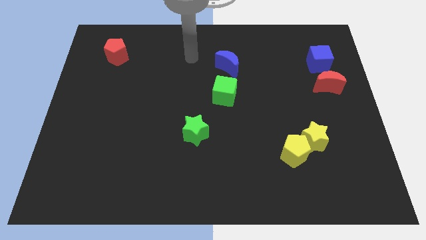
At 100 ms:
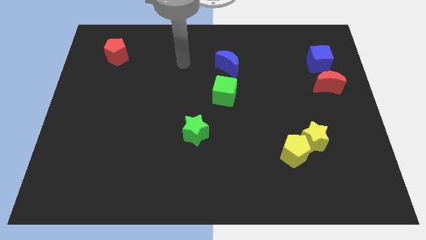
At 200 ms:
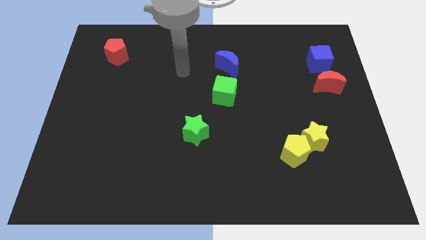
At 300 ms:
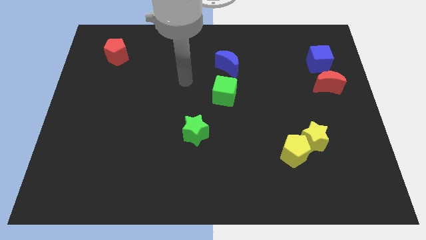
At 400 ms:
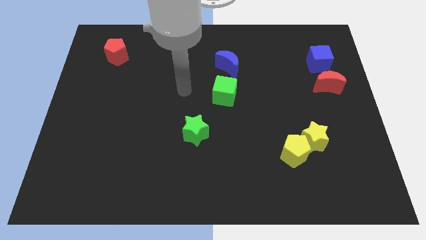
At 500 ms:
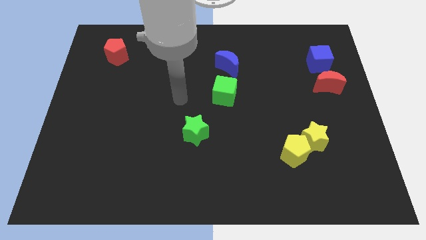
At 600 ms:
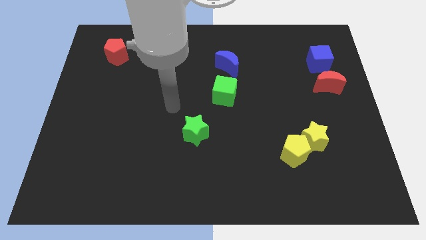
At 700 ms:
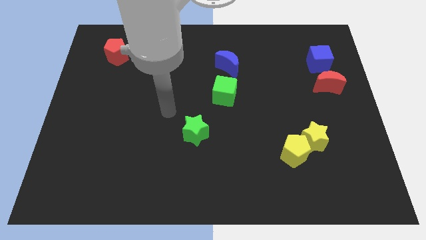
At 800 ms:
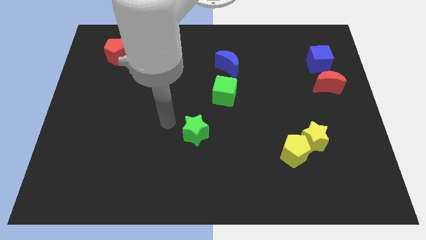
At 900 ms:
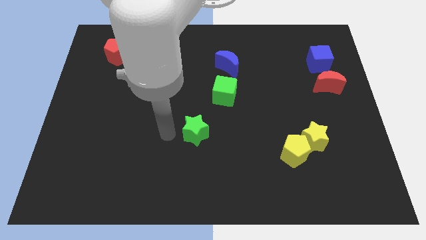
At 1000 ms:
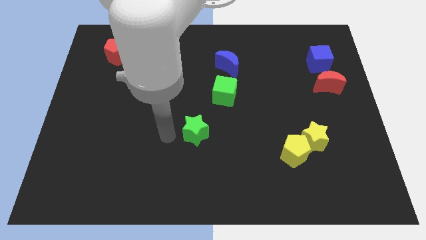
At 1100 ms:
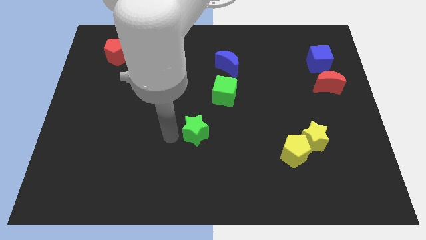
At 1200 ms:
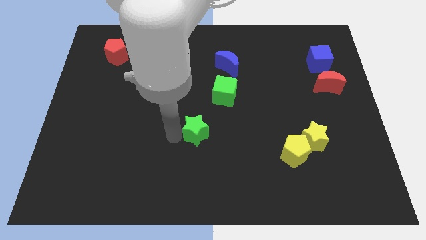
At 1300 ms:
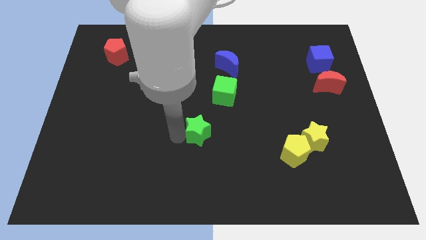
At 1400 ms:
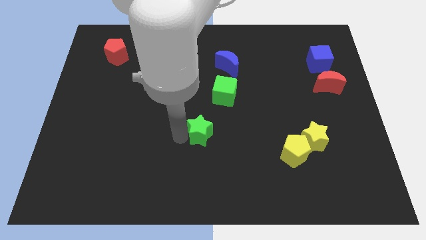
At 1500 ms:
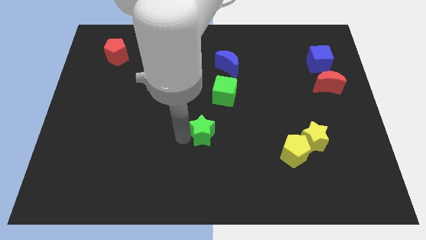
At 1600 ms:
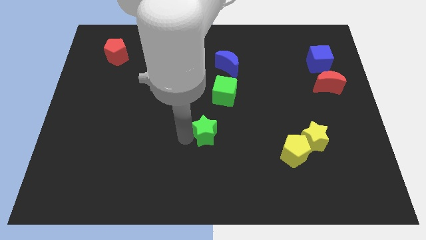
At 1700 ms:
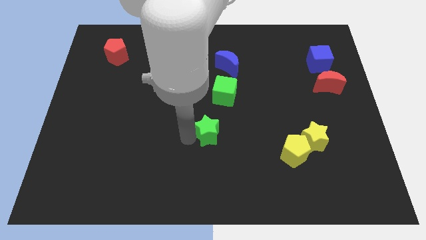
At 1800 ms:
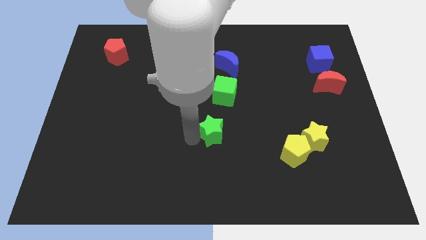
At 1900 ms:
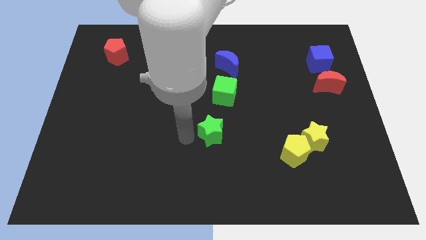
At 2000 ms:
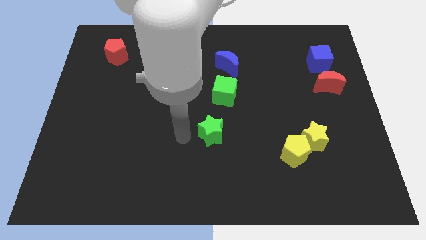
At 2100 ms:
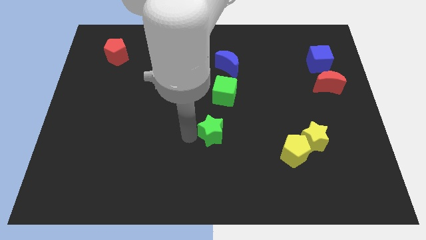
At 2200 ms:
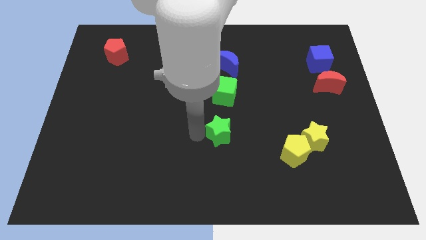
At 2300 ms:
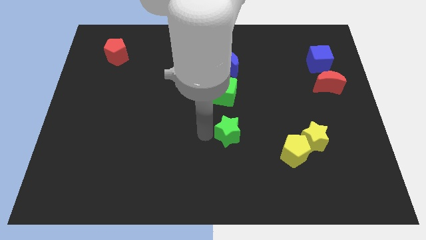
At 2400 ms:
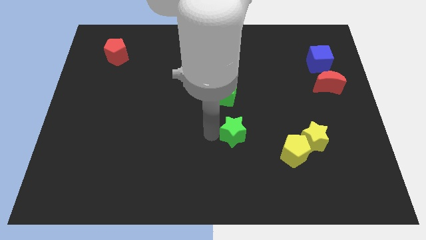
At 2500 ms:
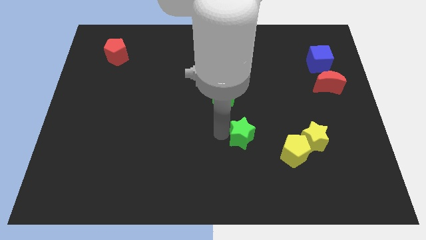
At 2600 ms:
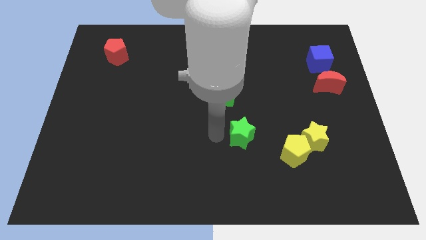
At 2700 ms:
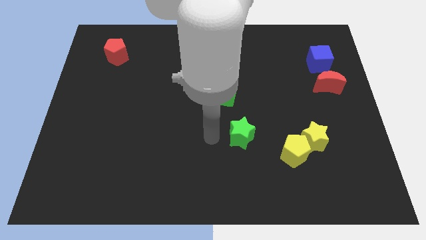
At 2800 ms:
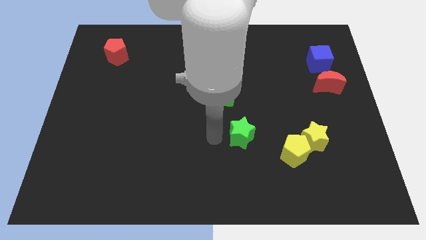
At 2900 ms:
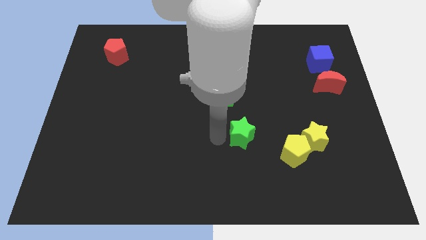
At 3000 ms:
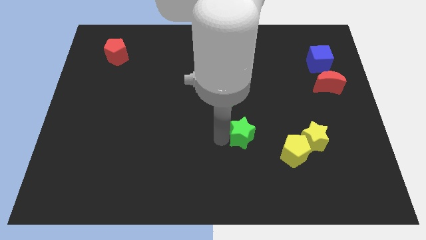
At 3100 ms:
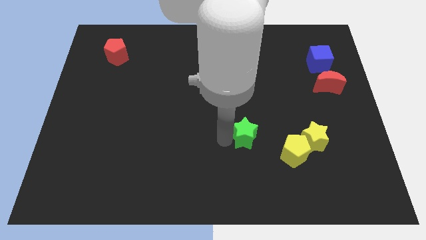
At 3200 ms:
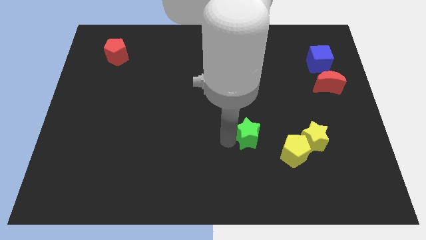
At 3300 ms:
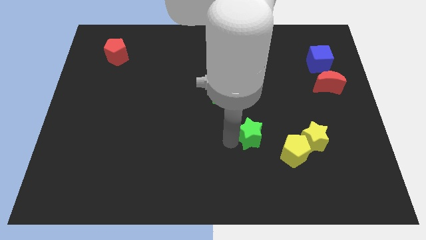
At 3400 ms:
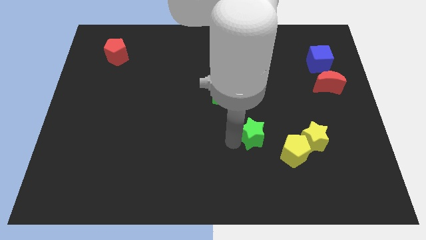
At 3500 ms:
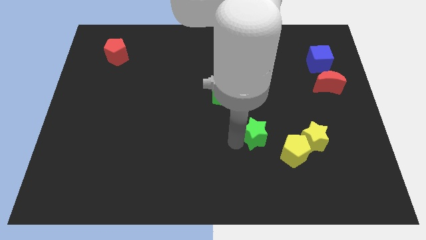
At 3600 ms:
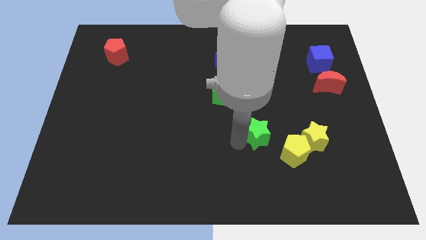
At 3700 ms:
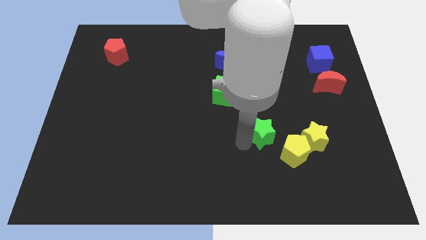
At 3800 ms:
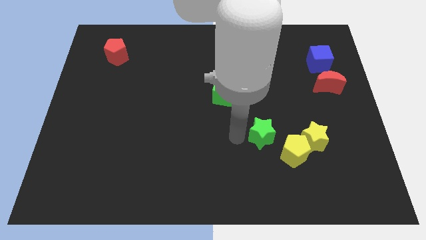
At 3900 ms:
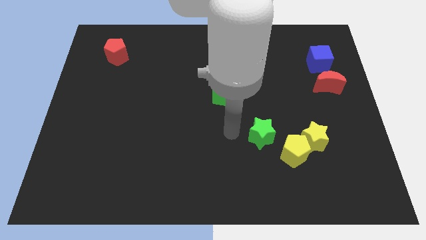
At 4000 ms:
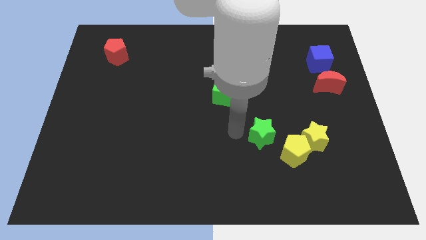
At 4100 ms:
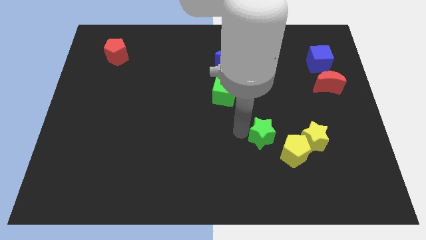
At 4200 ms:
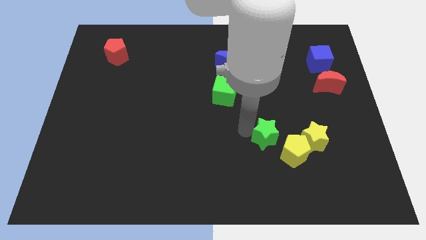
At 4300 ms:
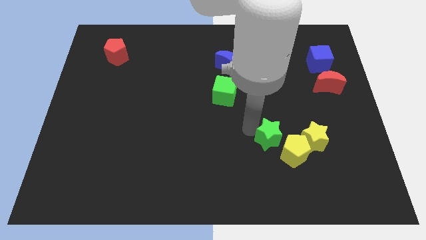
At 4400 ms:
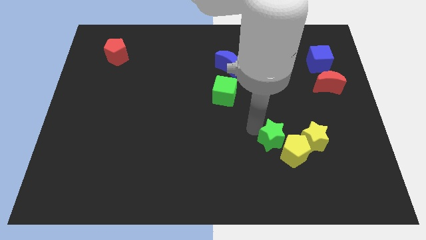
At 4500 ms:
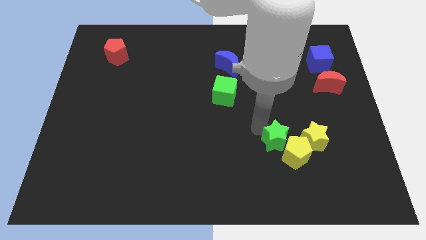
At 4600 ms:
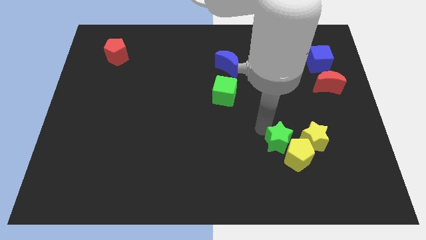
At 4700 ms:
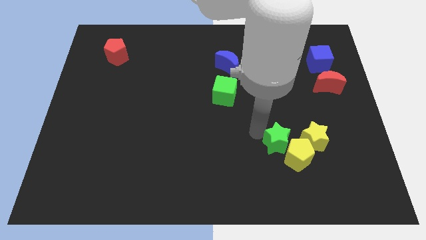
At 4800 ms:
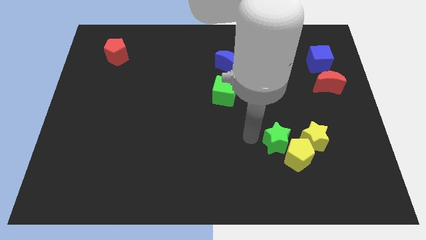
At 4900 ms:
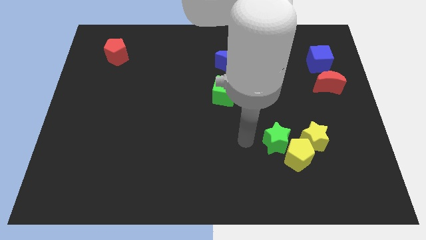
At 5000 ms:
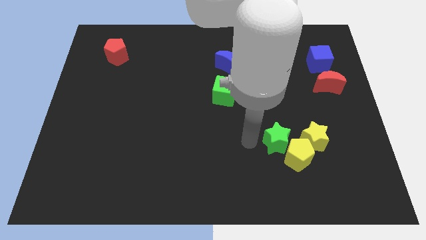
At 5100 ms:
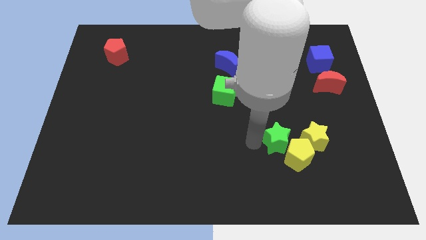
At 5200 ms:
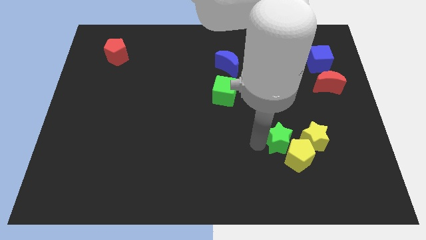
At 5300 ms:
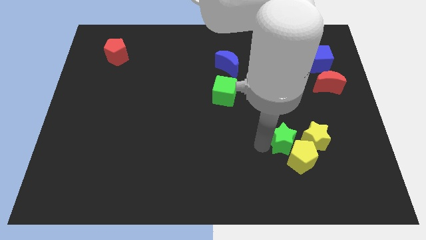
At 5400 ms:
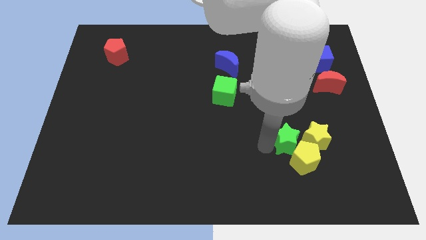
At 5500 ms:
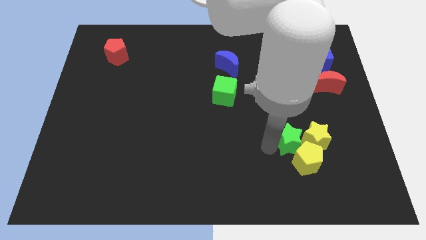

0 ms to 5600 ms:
push the green star close to the yellow star
